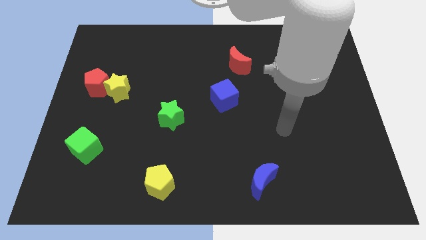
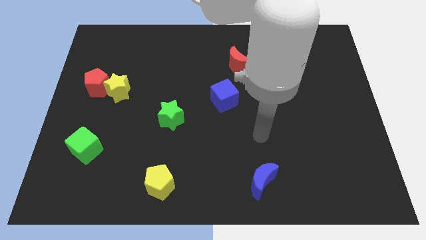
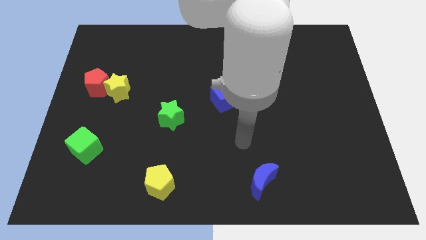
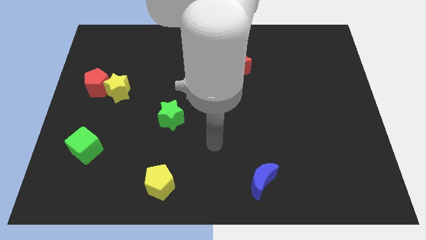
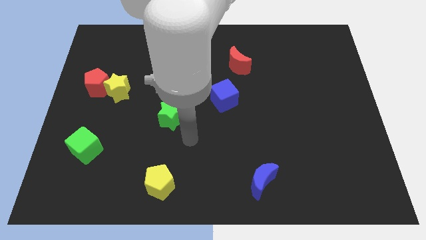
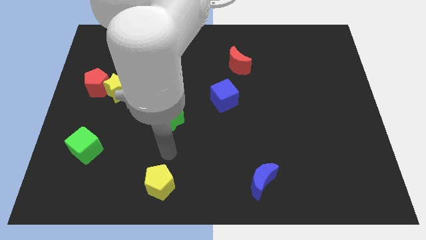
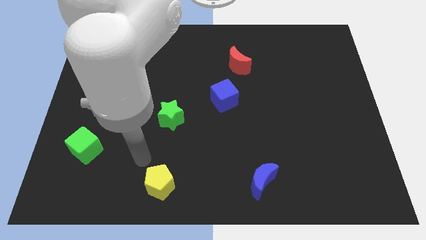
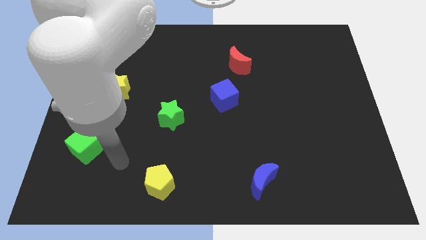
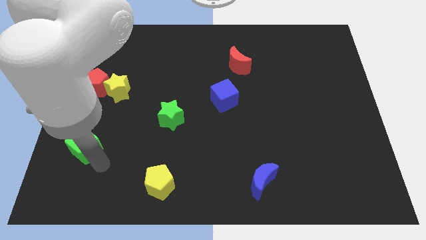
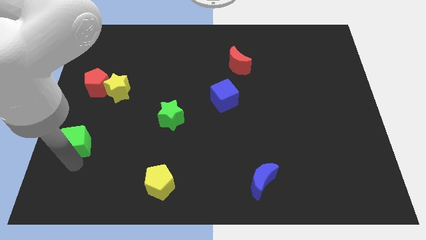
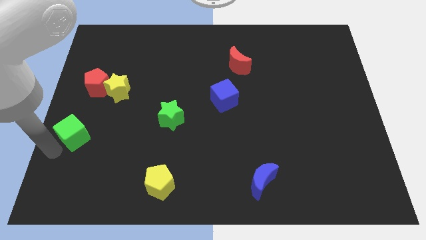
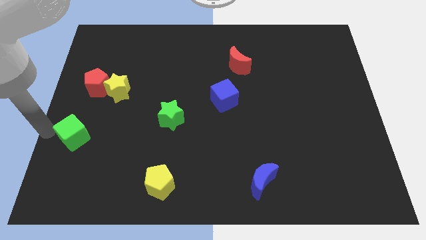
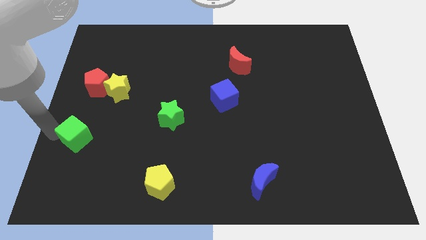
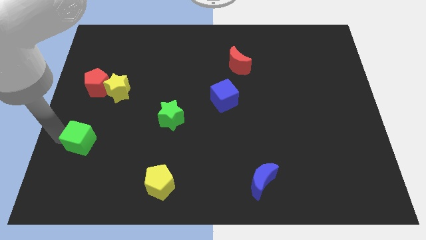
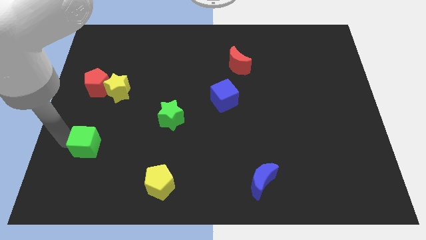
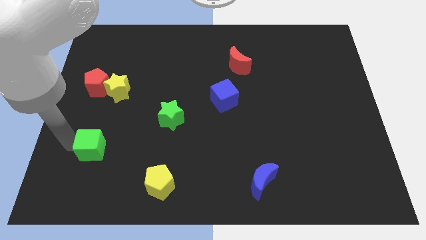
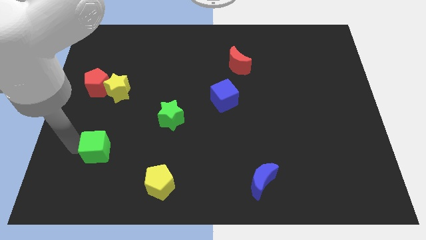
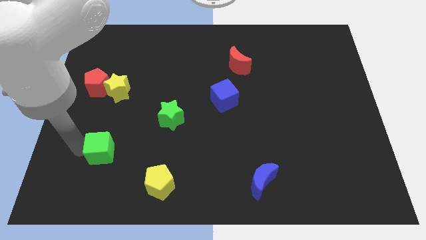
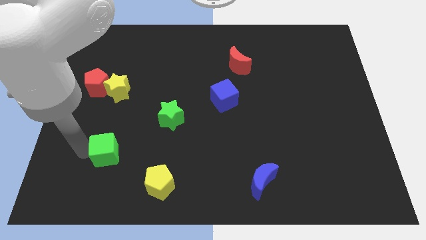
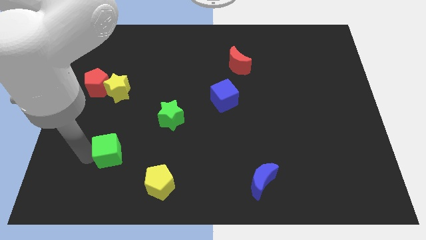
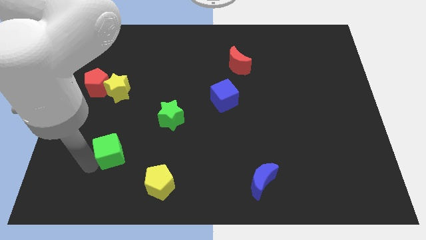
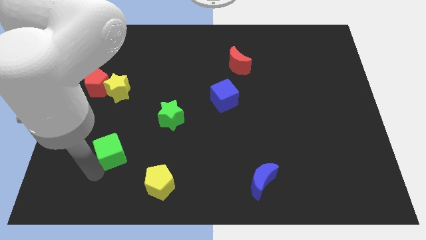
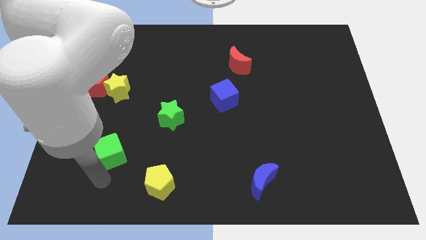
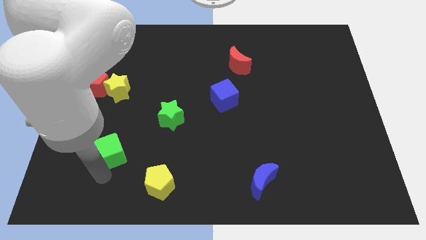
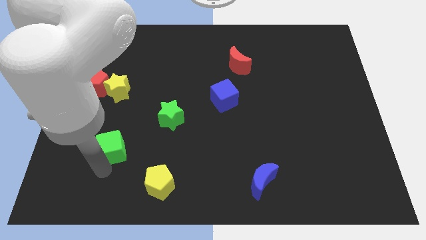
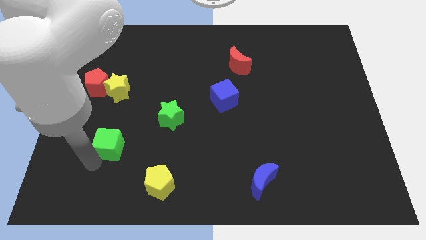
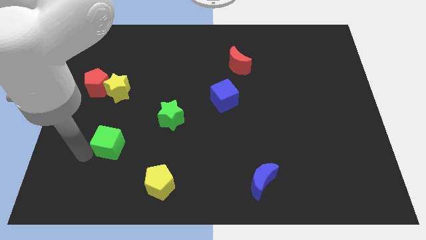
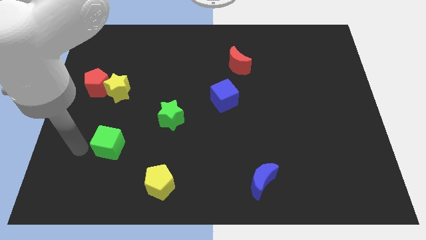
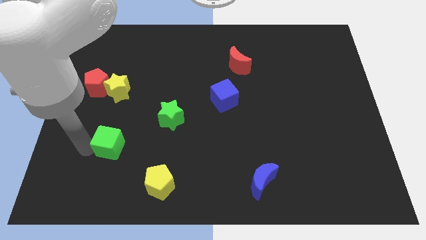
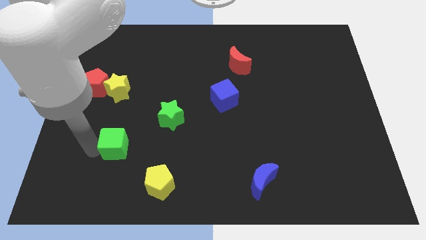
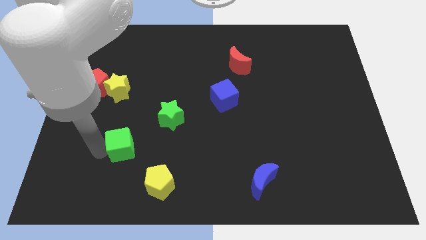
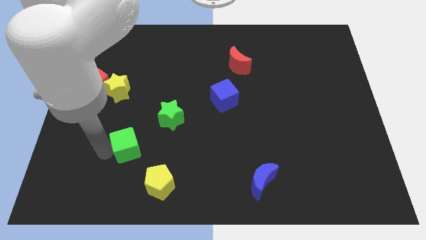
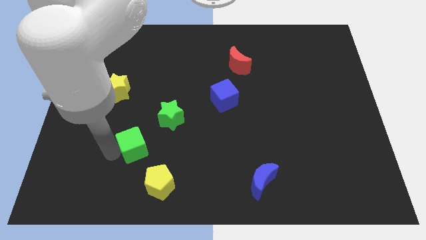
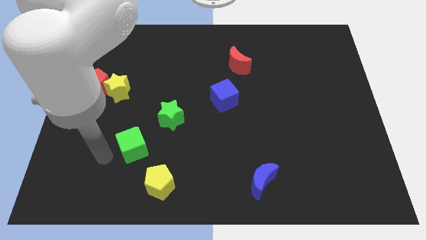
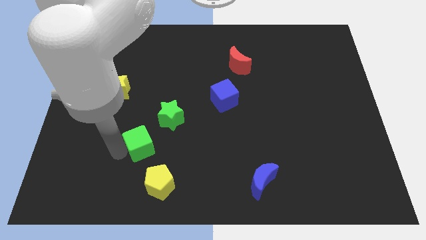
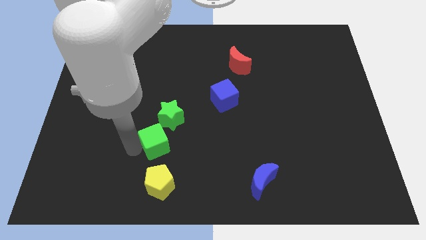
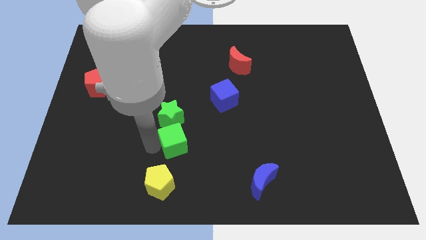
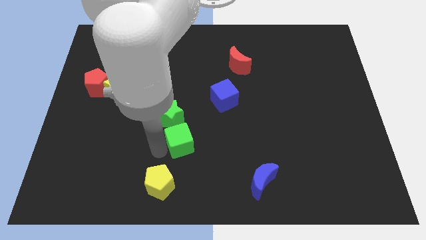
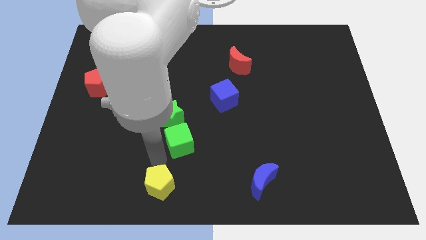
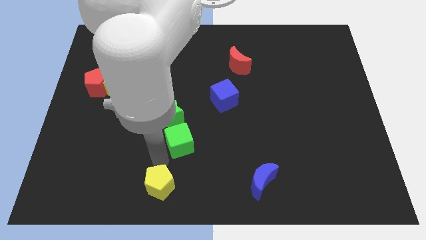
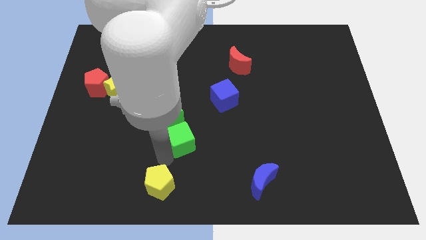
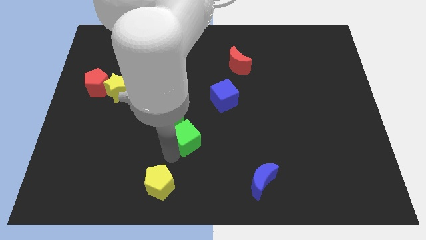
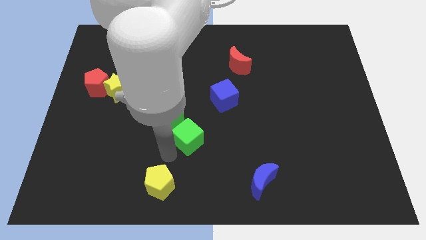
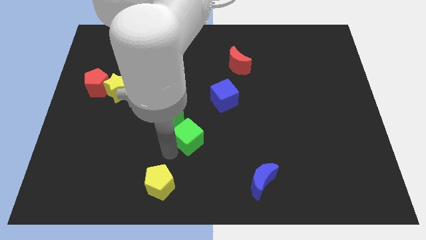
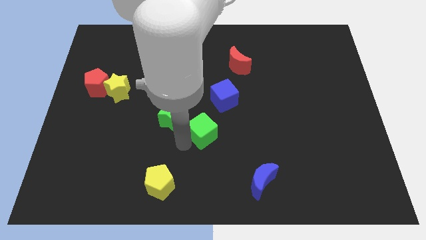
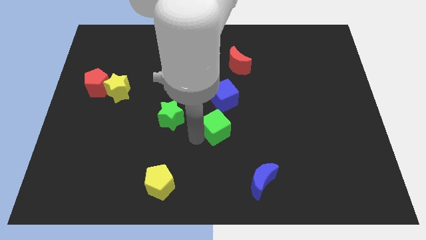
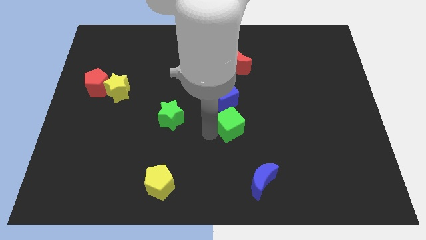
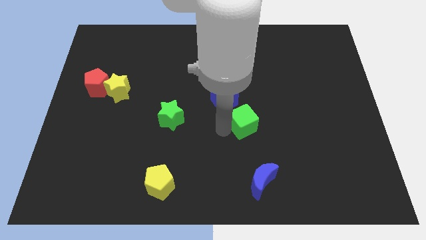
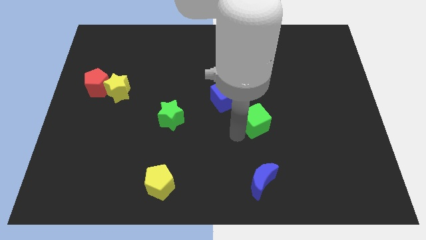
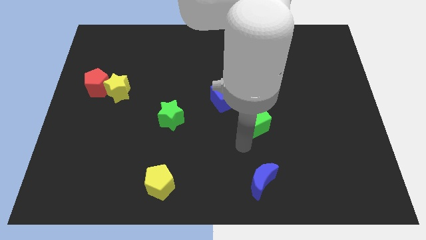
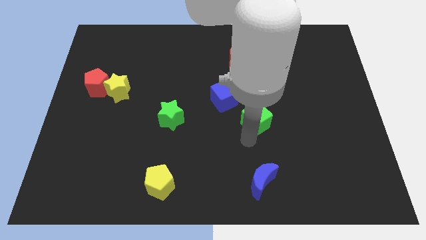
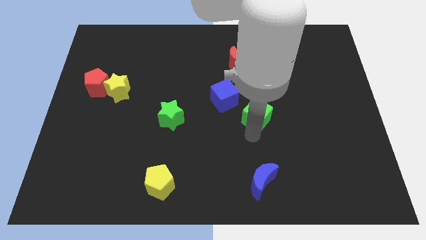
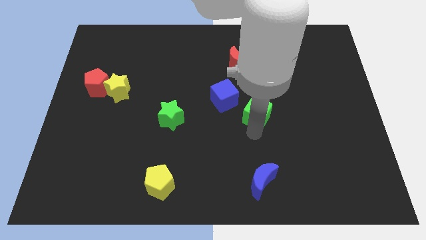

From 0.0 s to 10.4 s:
put the green cube to the right side of the blue cube

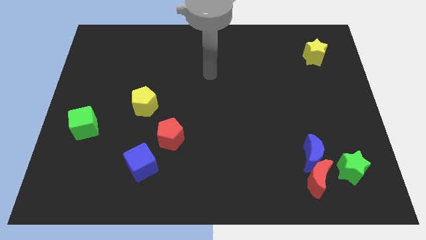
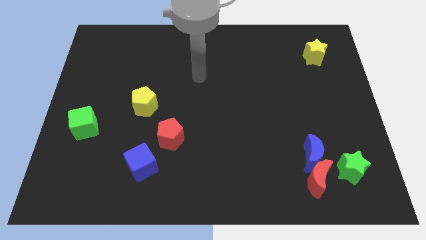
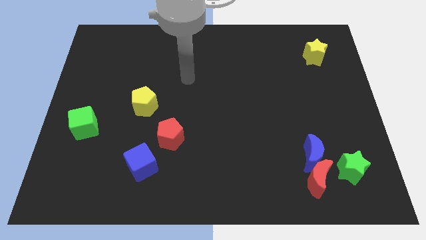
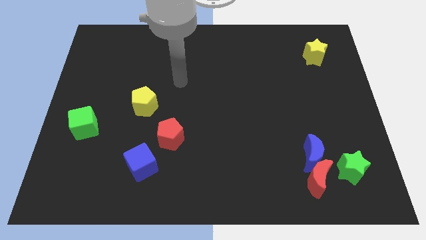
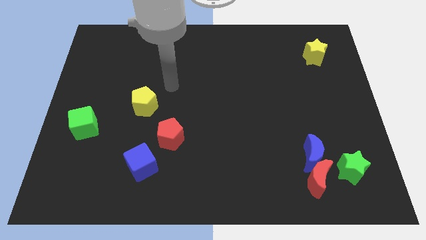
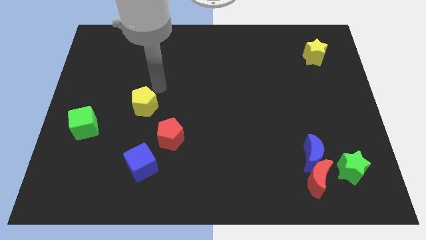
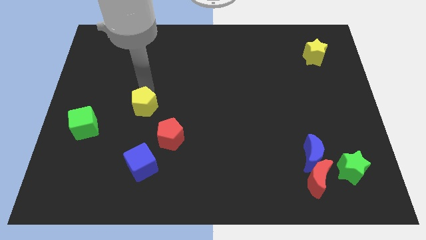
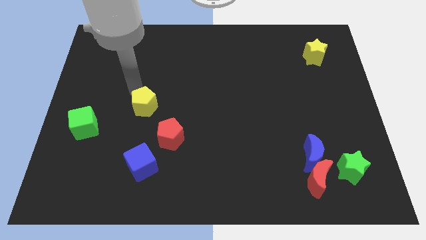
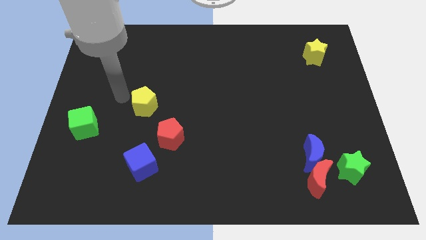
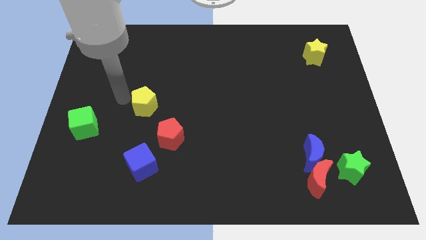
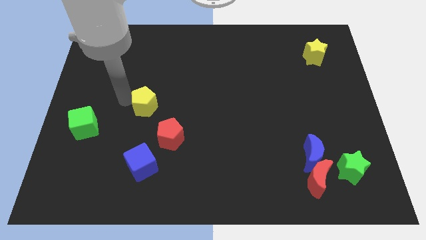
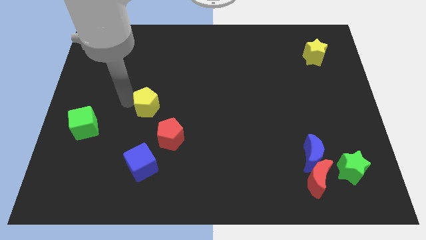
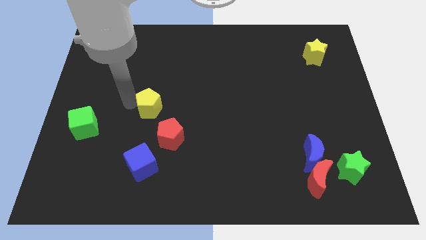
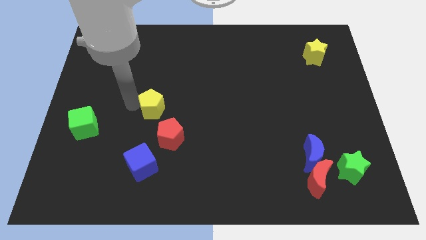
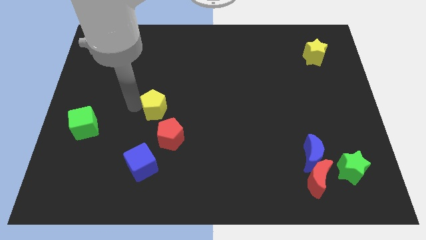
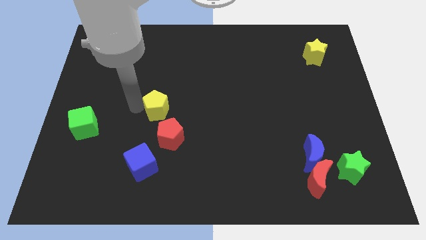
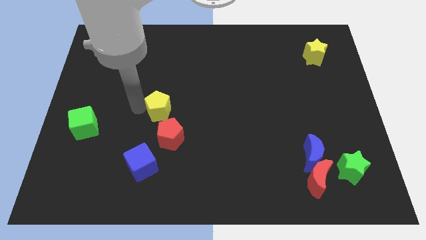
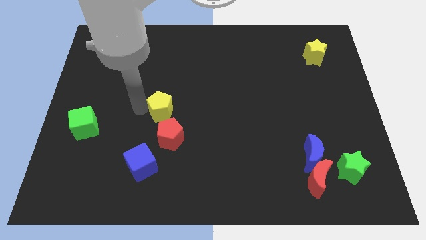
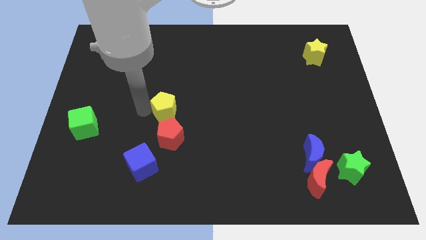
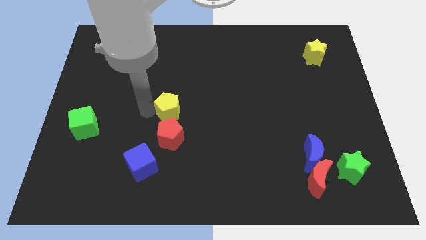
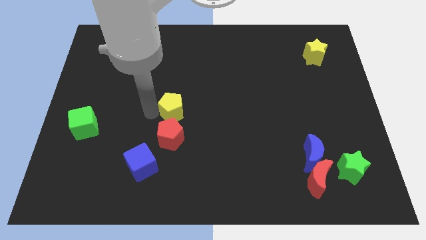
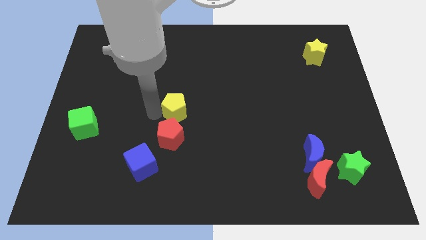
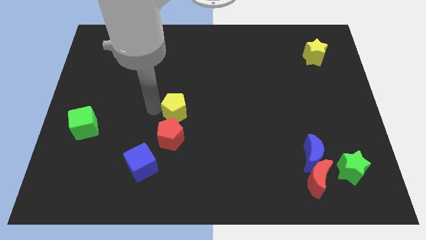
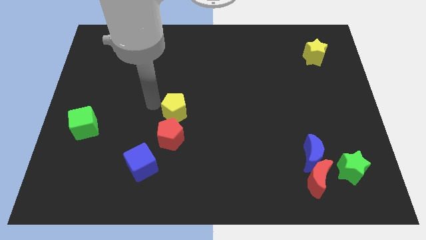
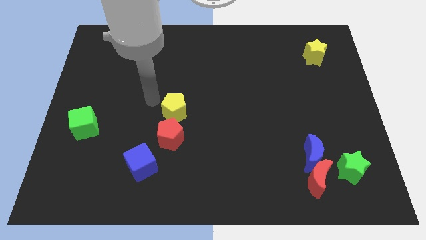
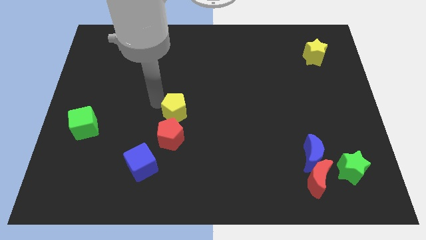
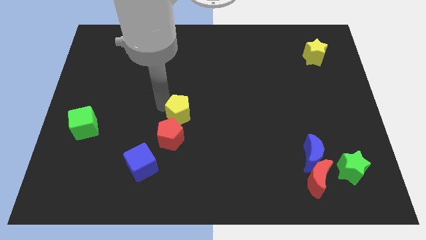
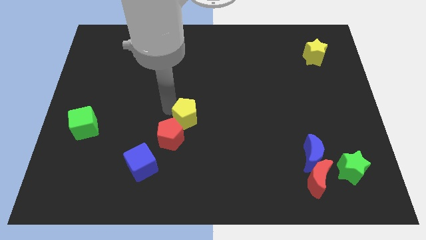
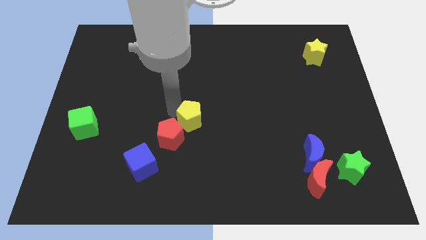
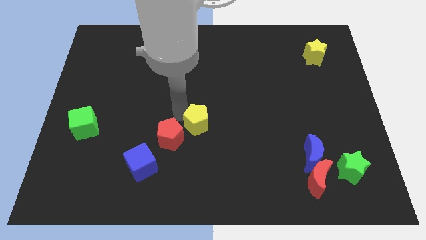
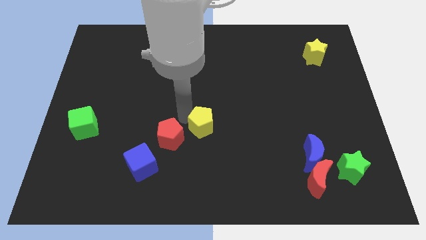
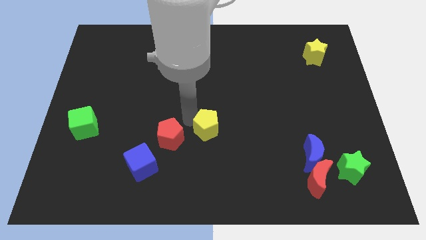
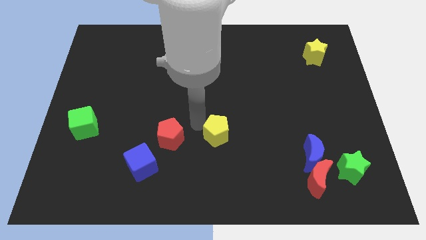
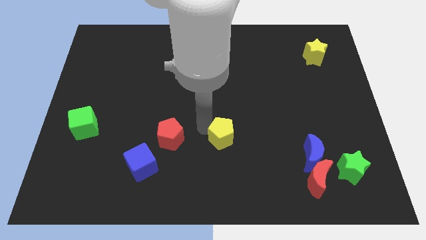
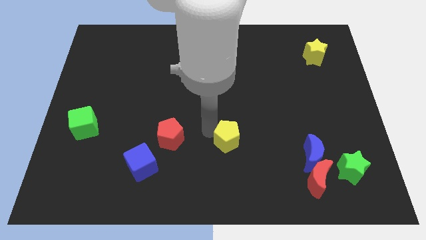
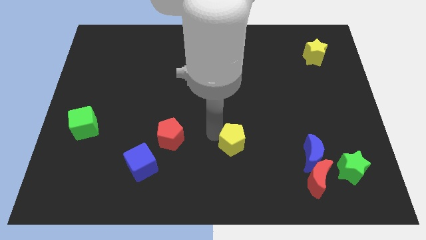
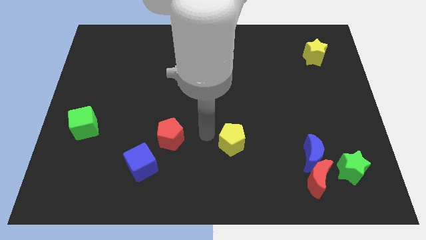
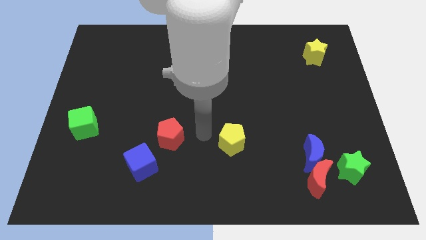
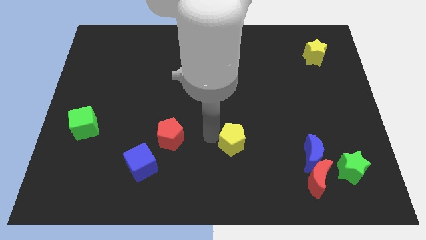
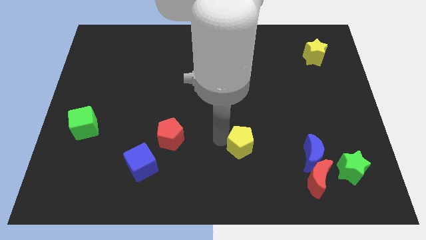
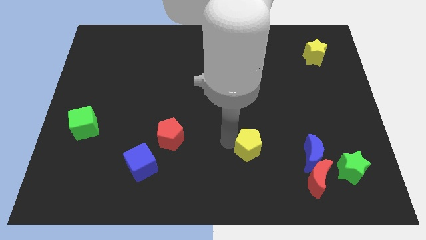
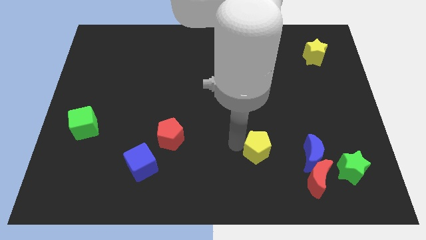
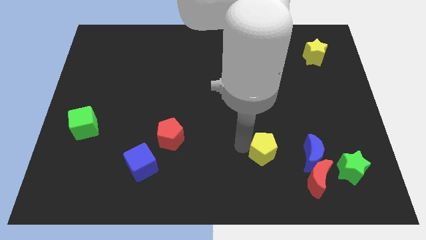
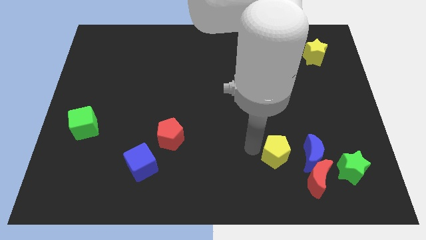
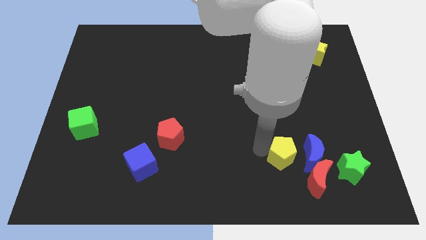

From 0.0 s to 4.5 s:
put the yellow pentagon to the left of the green star
